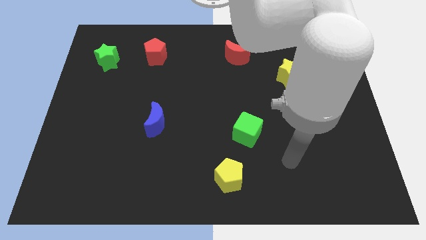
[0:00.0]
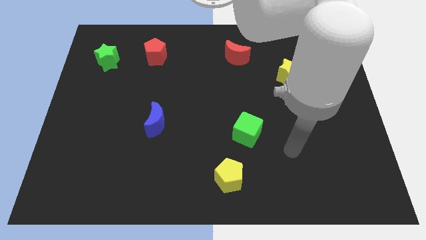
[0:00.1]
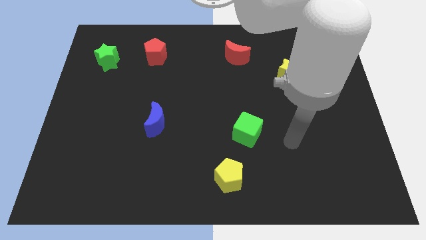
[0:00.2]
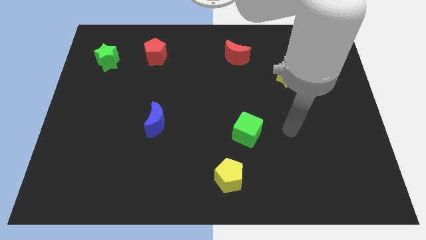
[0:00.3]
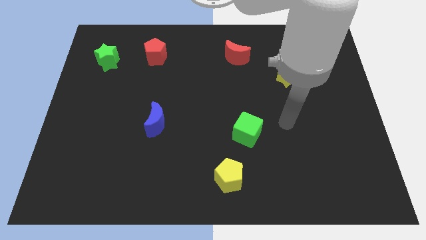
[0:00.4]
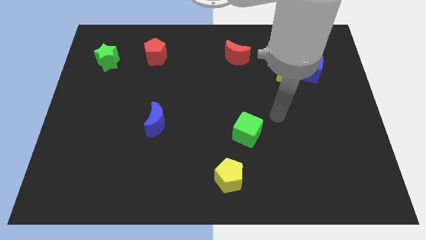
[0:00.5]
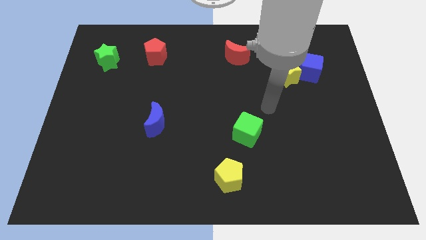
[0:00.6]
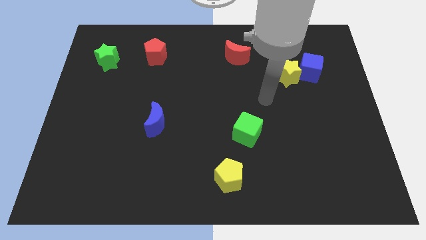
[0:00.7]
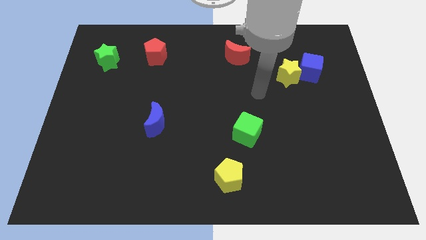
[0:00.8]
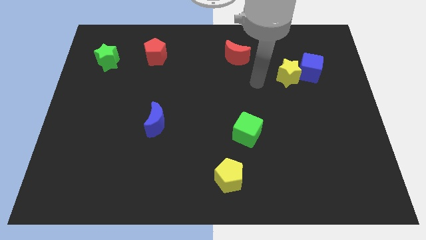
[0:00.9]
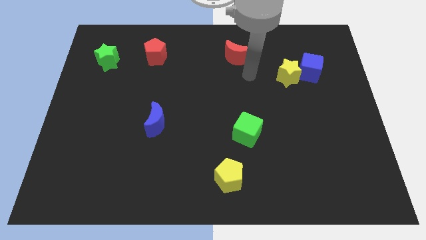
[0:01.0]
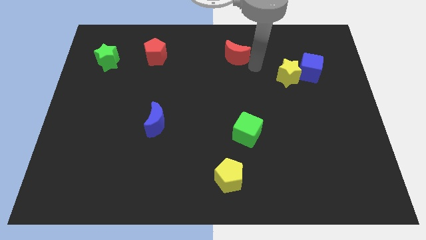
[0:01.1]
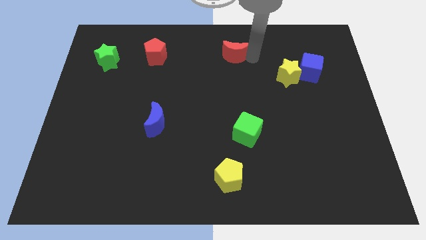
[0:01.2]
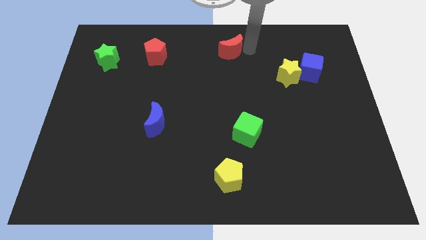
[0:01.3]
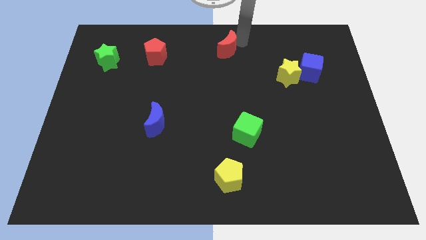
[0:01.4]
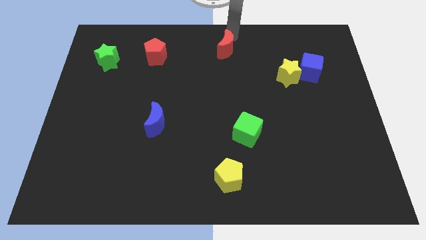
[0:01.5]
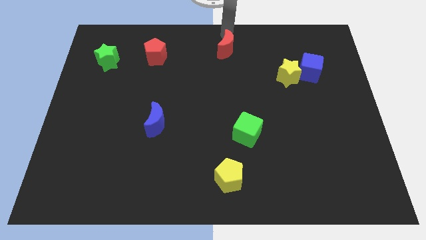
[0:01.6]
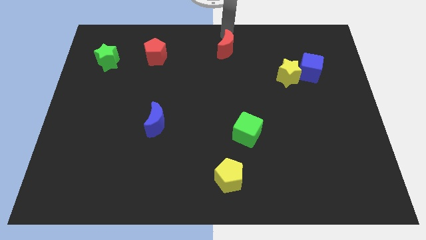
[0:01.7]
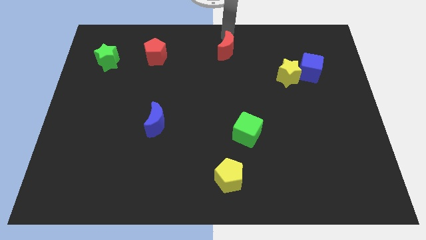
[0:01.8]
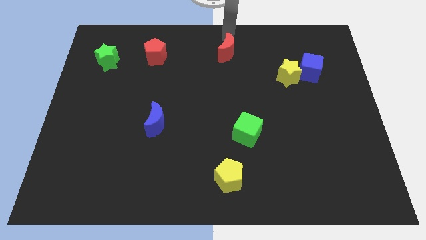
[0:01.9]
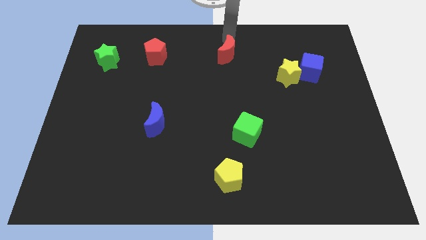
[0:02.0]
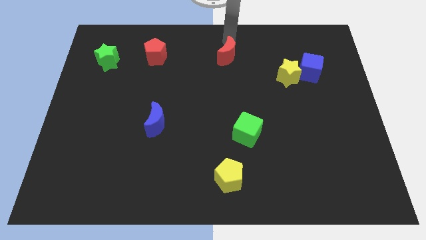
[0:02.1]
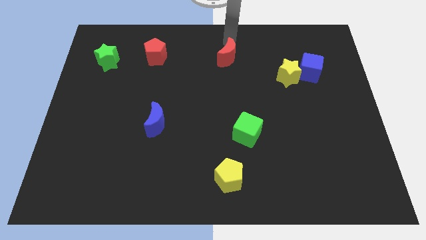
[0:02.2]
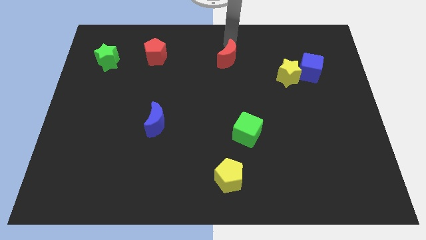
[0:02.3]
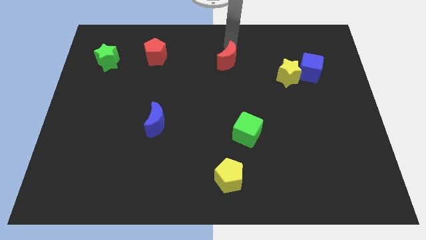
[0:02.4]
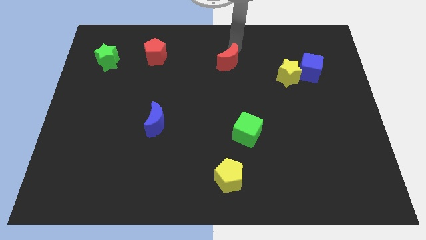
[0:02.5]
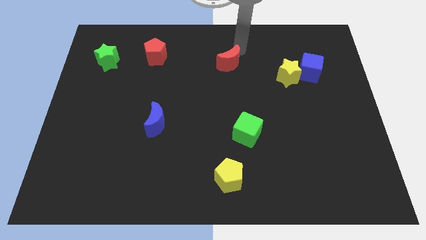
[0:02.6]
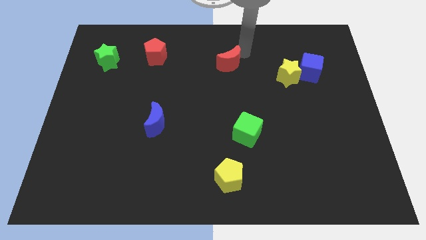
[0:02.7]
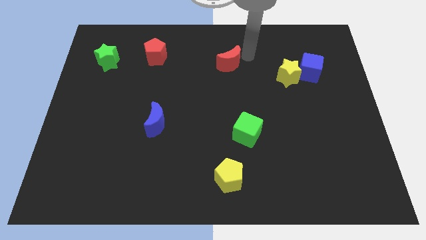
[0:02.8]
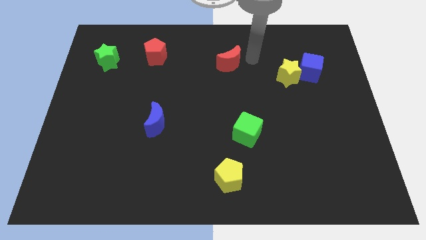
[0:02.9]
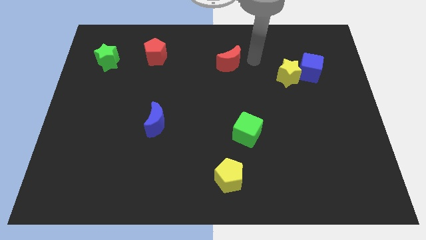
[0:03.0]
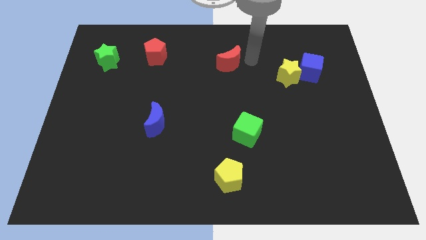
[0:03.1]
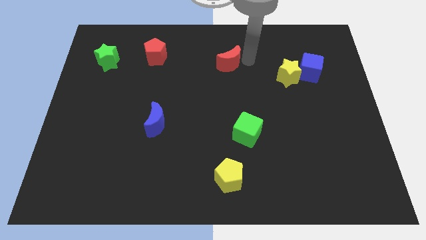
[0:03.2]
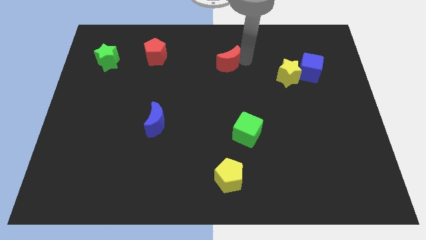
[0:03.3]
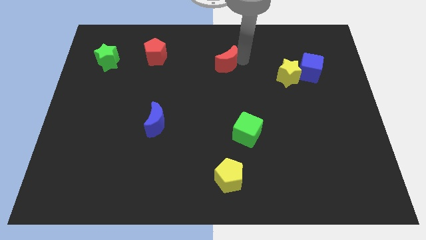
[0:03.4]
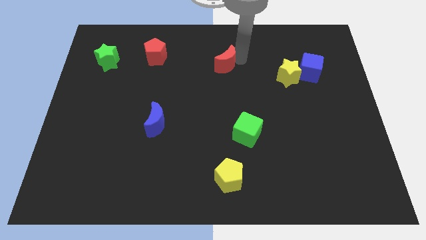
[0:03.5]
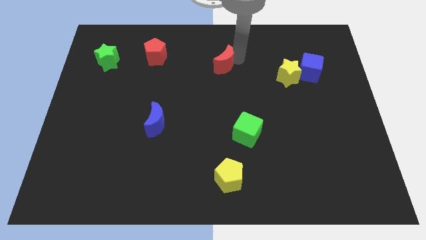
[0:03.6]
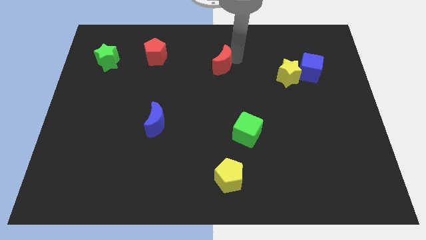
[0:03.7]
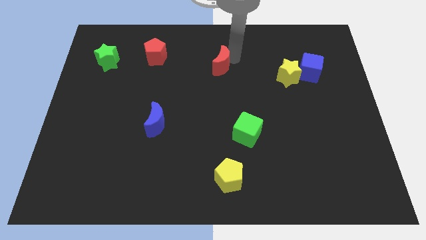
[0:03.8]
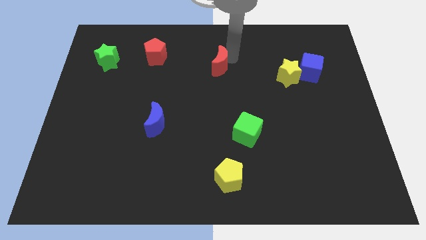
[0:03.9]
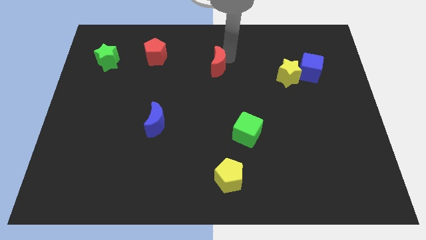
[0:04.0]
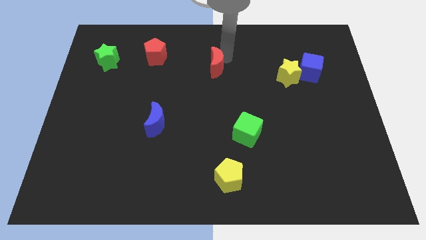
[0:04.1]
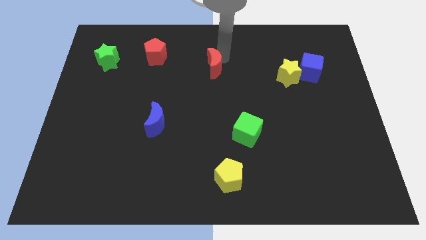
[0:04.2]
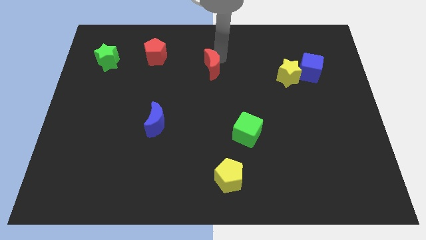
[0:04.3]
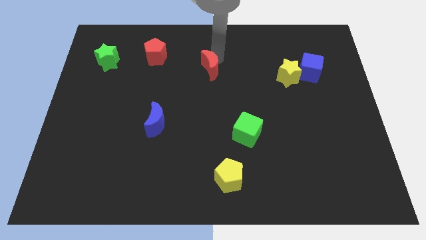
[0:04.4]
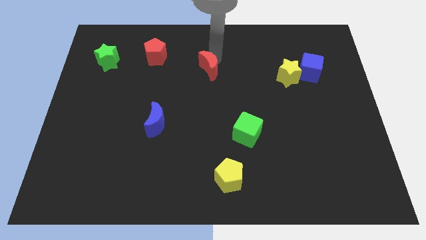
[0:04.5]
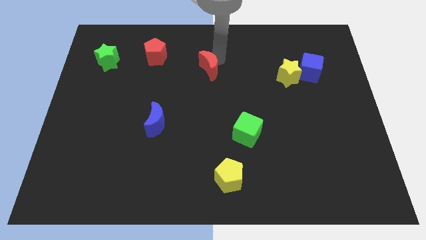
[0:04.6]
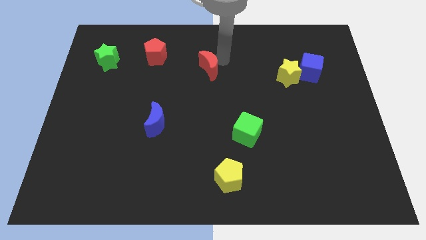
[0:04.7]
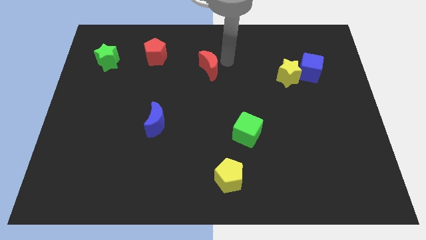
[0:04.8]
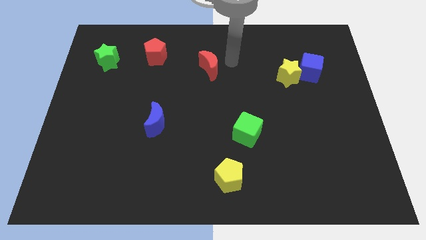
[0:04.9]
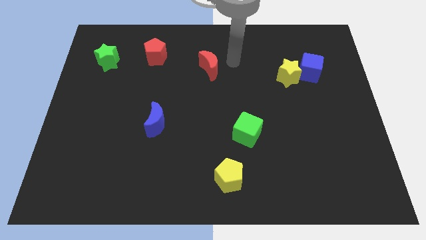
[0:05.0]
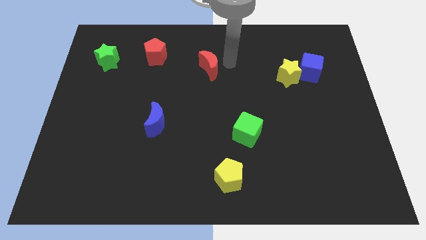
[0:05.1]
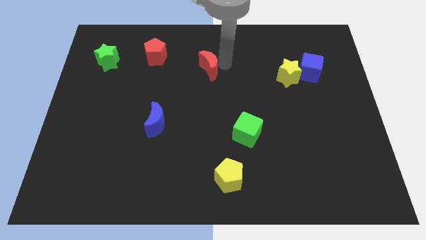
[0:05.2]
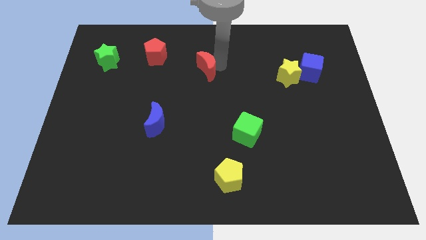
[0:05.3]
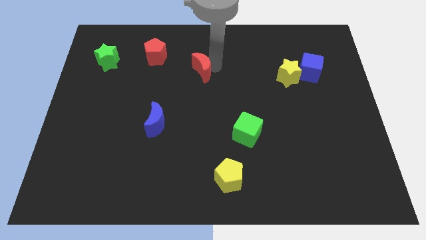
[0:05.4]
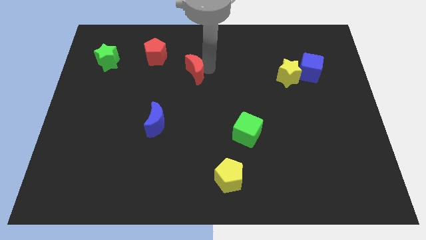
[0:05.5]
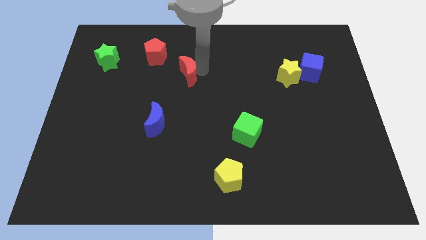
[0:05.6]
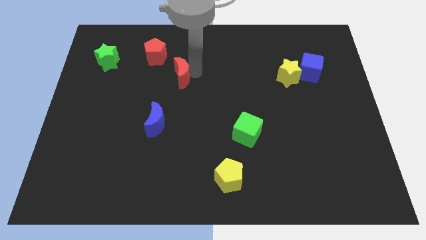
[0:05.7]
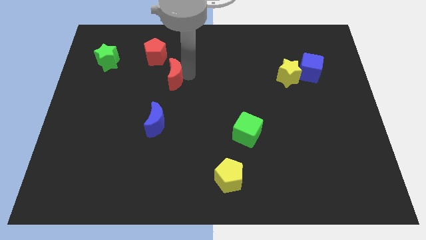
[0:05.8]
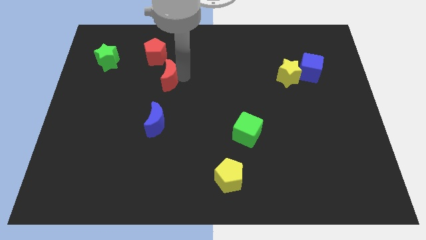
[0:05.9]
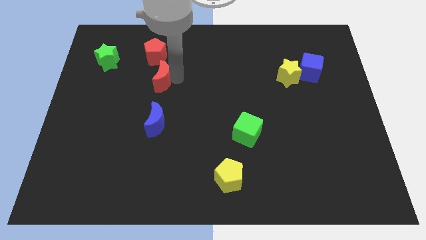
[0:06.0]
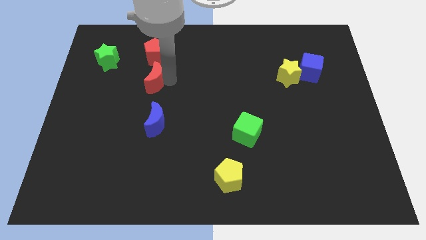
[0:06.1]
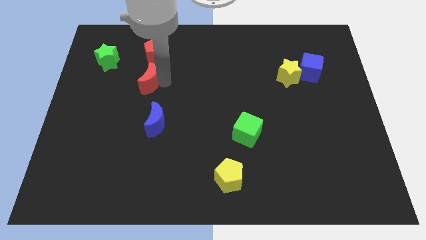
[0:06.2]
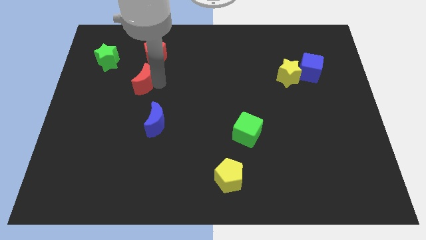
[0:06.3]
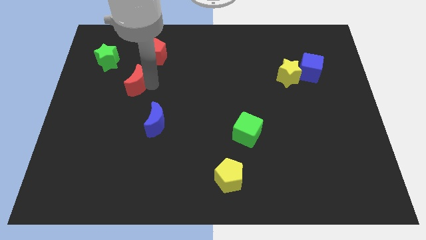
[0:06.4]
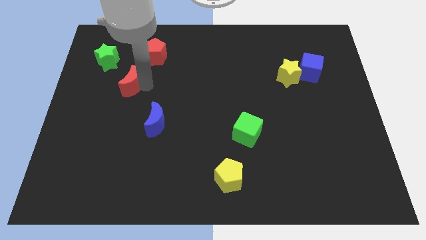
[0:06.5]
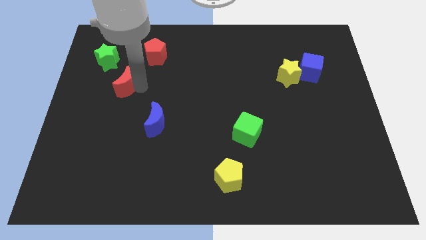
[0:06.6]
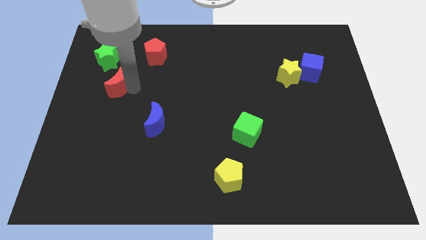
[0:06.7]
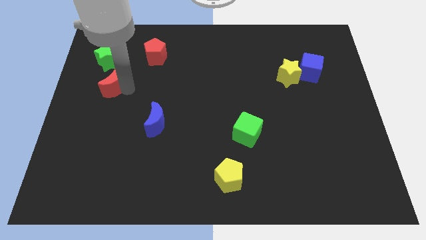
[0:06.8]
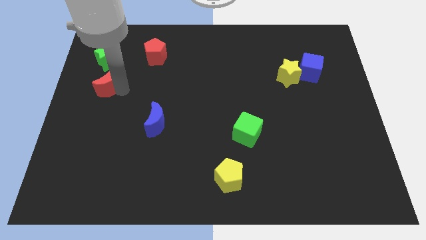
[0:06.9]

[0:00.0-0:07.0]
put the red moon to the left side
